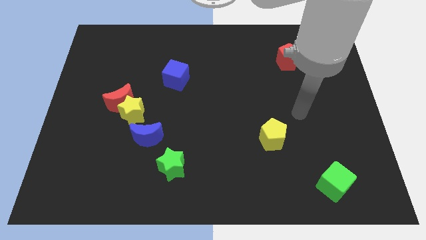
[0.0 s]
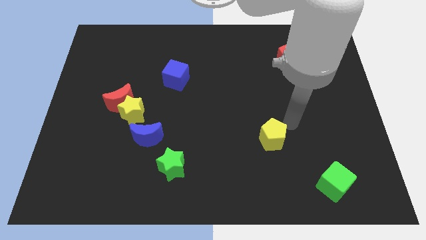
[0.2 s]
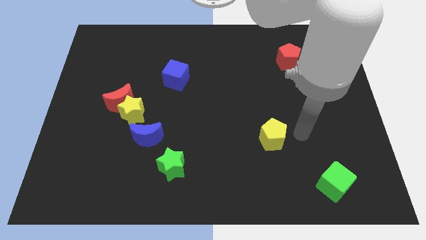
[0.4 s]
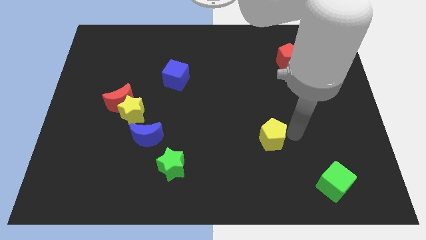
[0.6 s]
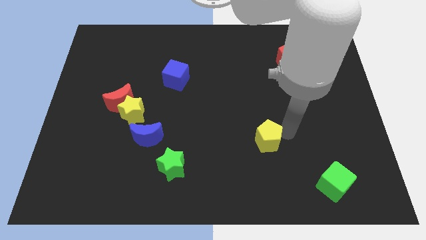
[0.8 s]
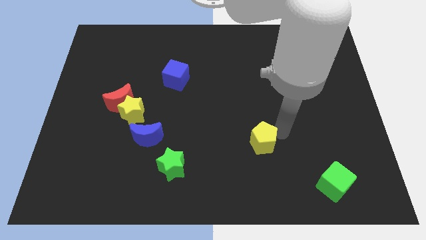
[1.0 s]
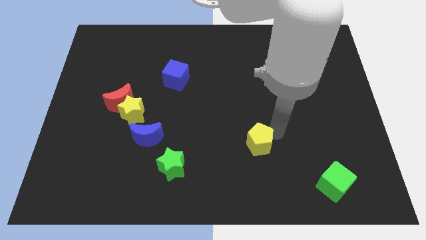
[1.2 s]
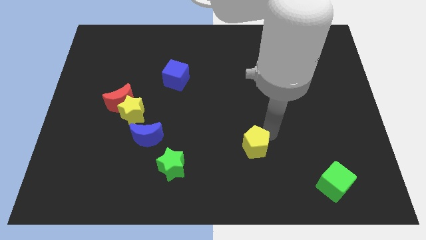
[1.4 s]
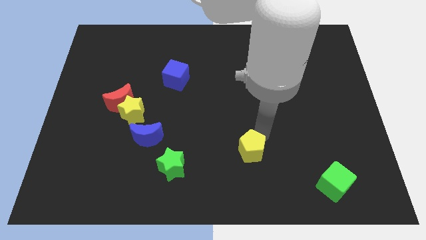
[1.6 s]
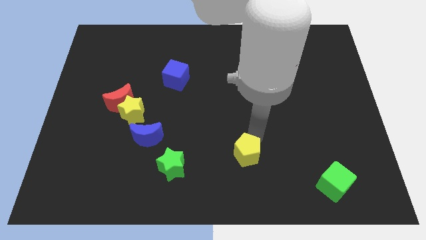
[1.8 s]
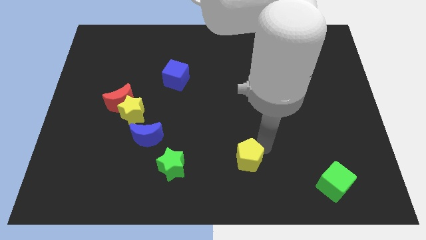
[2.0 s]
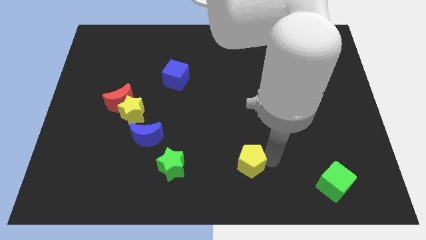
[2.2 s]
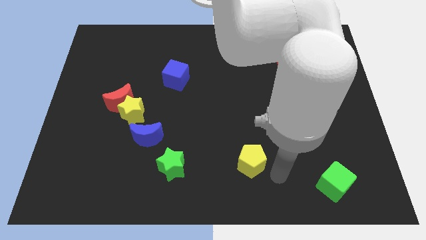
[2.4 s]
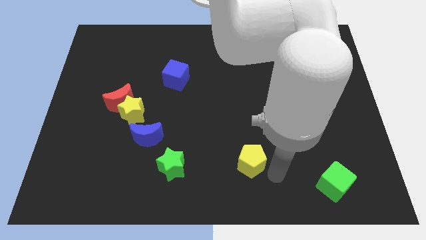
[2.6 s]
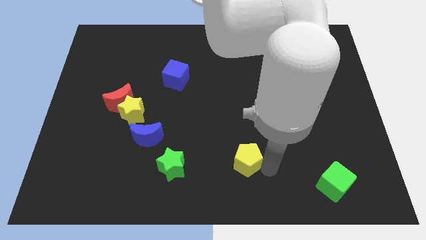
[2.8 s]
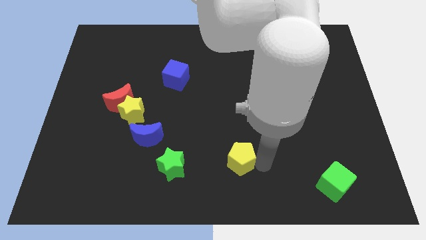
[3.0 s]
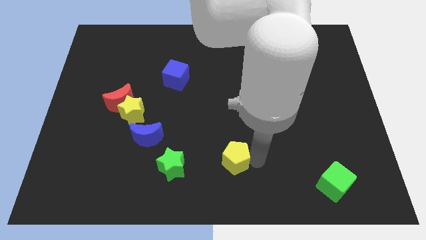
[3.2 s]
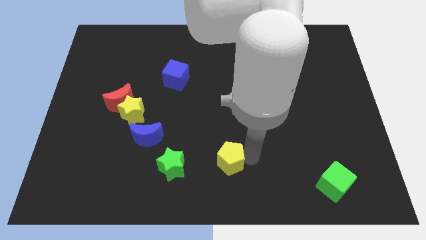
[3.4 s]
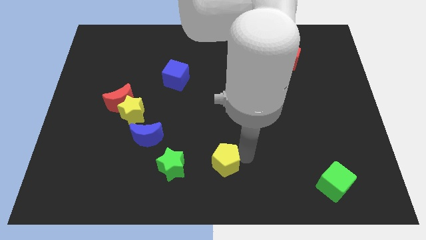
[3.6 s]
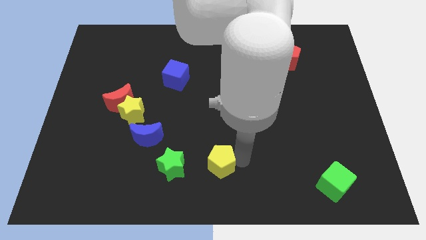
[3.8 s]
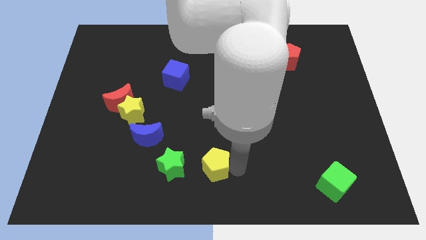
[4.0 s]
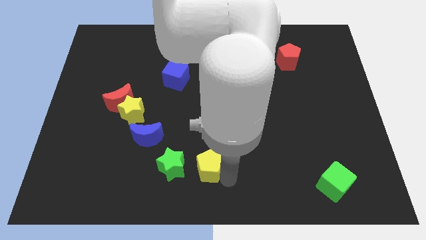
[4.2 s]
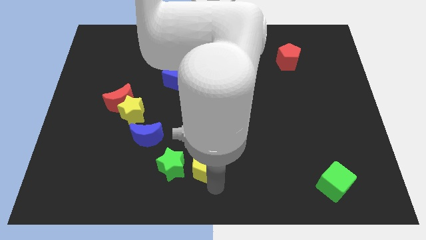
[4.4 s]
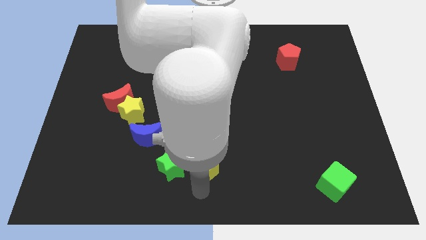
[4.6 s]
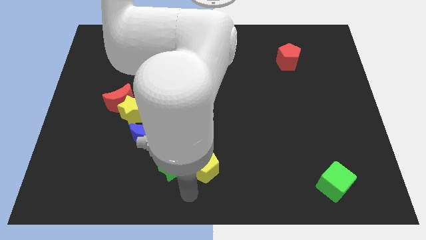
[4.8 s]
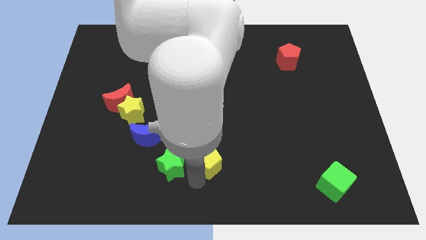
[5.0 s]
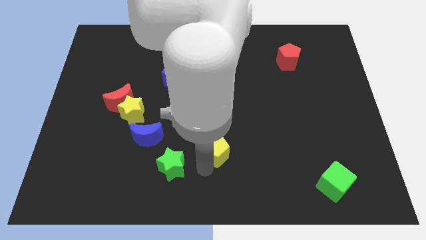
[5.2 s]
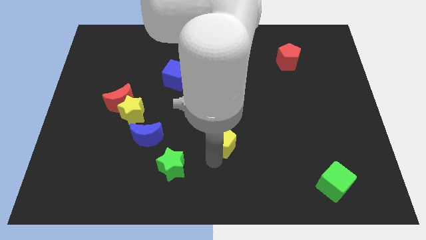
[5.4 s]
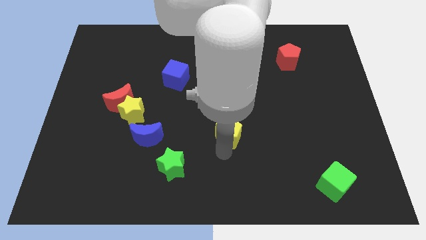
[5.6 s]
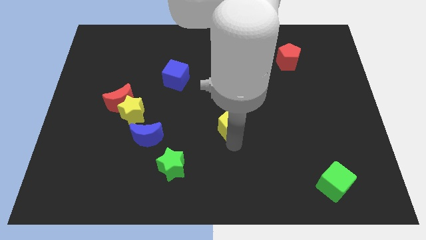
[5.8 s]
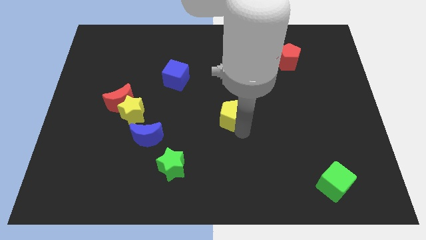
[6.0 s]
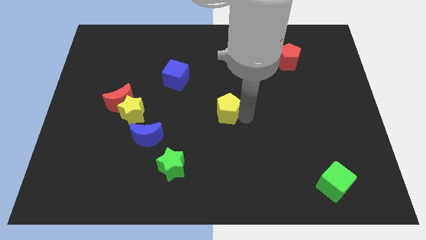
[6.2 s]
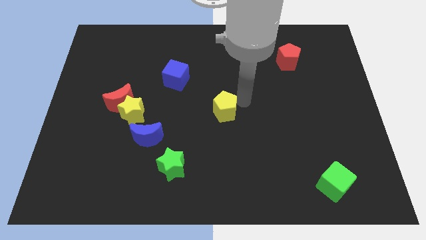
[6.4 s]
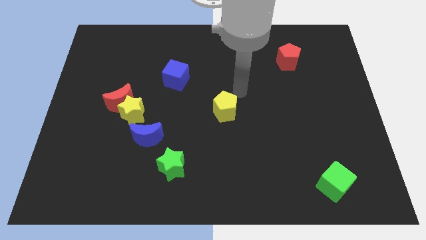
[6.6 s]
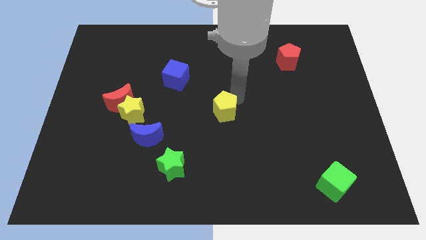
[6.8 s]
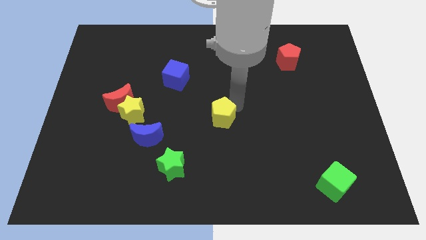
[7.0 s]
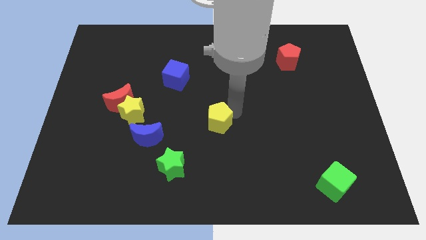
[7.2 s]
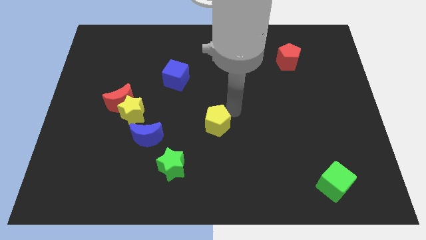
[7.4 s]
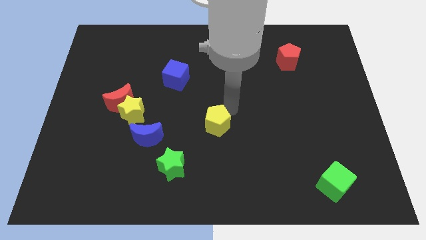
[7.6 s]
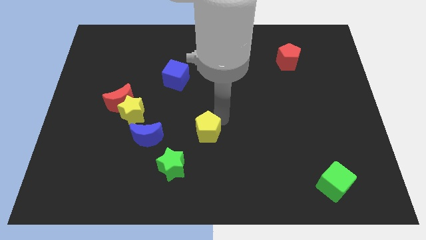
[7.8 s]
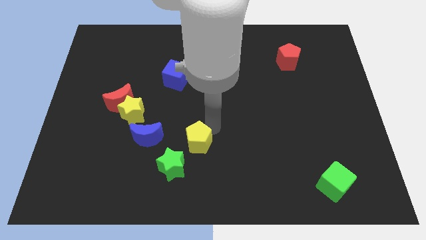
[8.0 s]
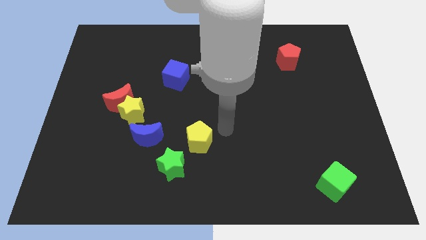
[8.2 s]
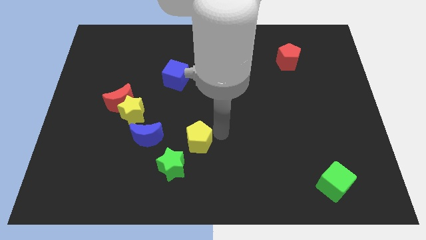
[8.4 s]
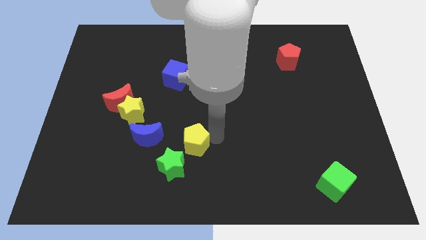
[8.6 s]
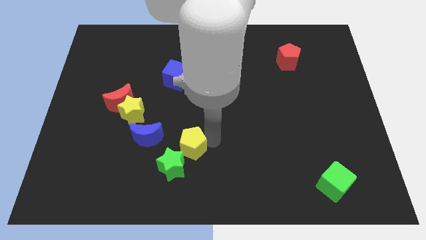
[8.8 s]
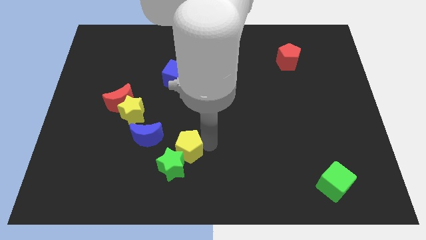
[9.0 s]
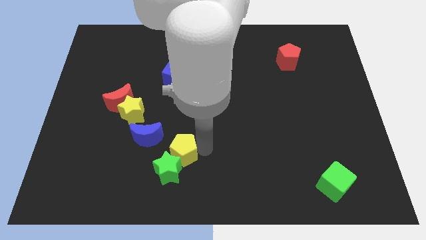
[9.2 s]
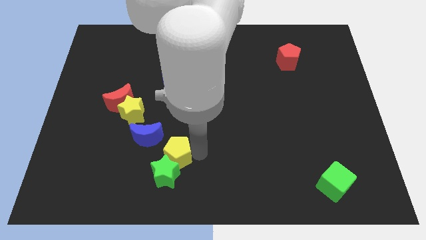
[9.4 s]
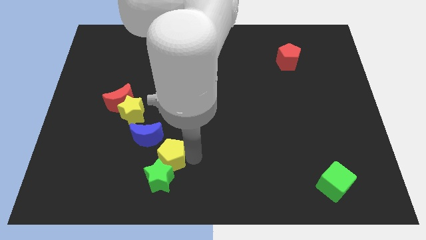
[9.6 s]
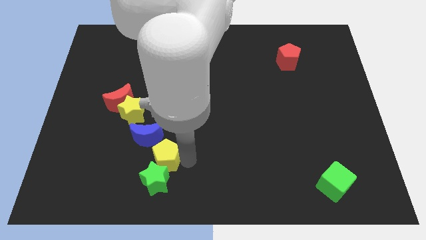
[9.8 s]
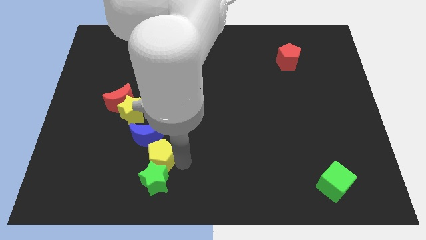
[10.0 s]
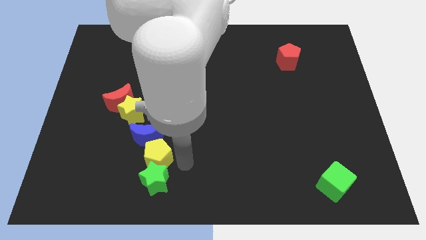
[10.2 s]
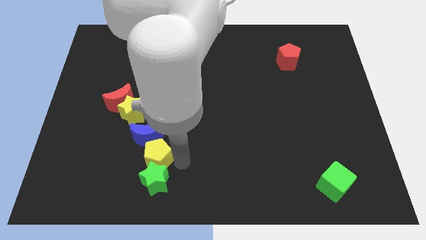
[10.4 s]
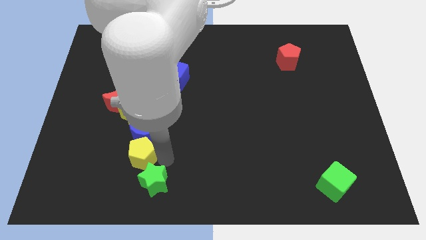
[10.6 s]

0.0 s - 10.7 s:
move the yellow pentagon below the yellow star

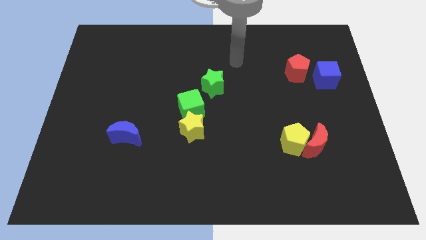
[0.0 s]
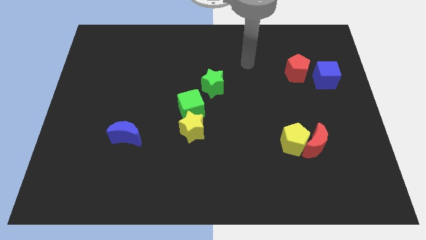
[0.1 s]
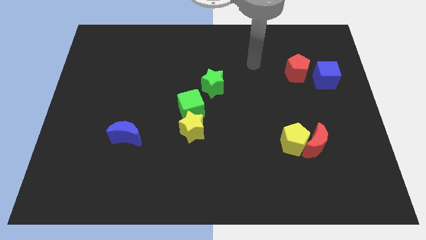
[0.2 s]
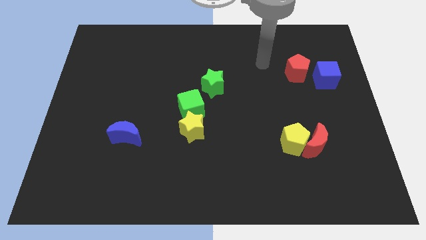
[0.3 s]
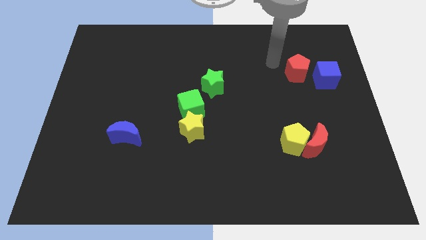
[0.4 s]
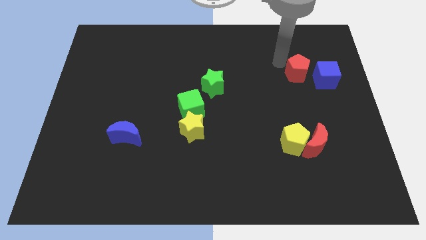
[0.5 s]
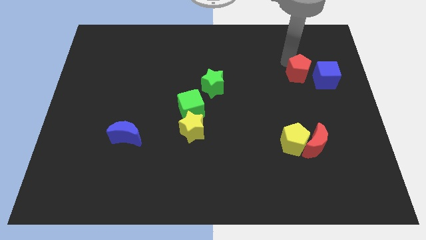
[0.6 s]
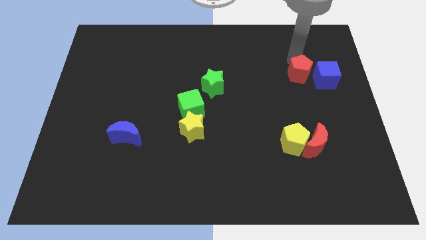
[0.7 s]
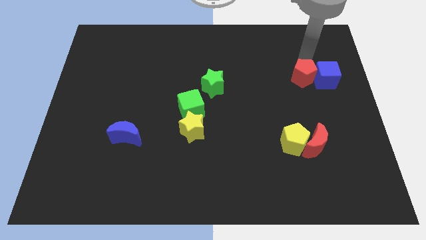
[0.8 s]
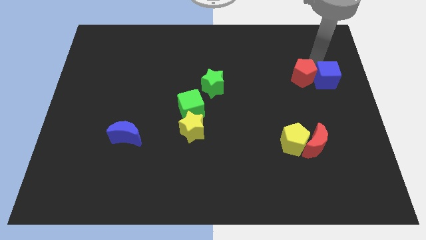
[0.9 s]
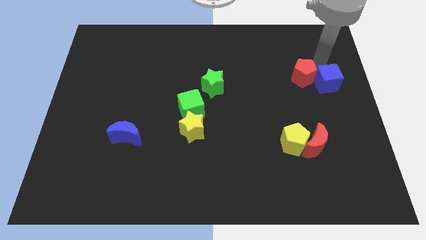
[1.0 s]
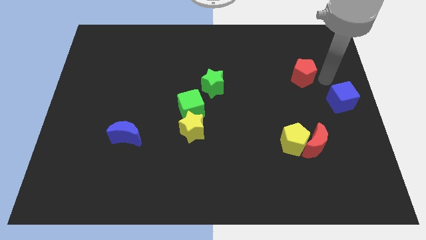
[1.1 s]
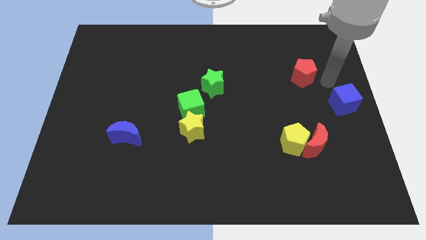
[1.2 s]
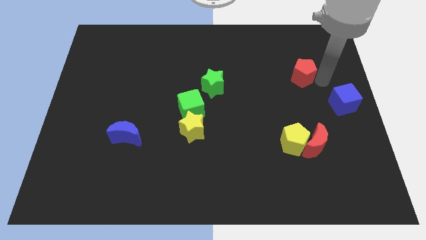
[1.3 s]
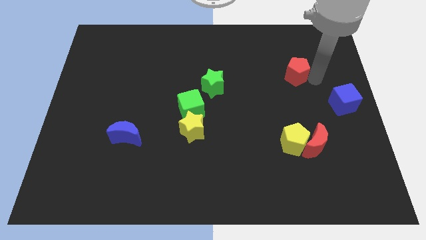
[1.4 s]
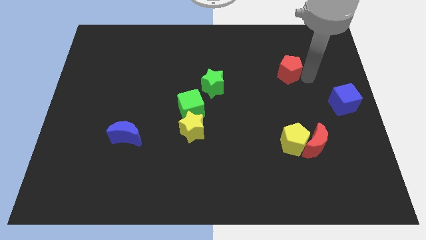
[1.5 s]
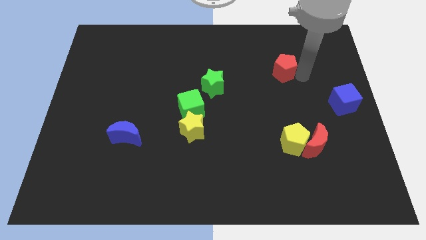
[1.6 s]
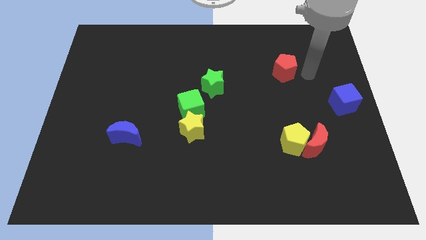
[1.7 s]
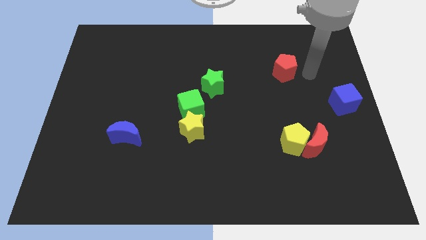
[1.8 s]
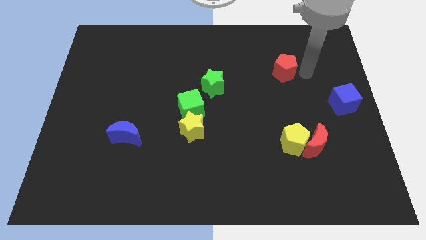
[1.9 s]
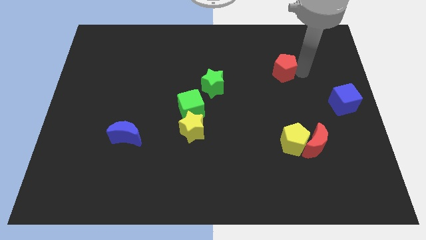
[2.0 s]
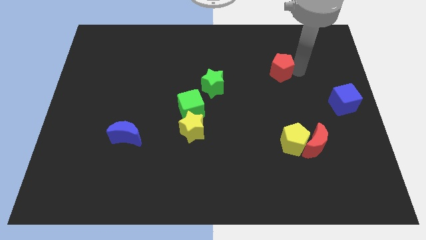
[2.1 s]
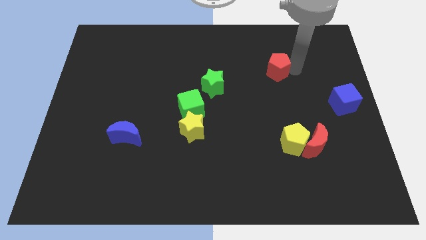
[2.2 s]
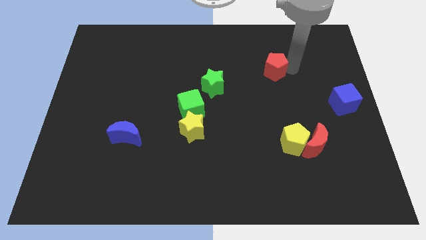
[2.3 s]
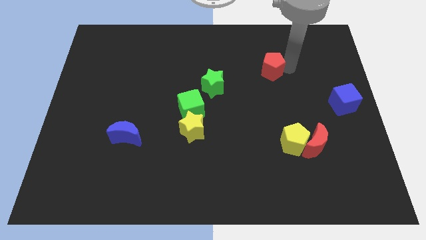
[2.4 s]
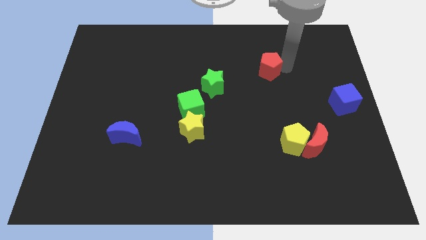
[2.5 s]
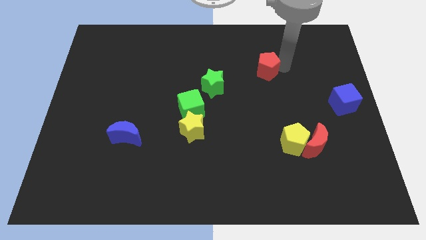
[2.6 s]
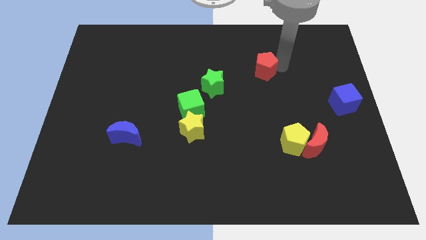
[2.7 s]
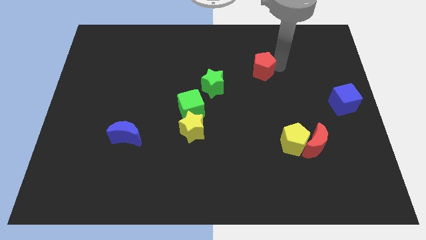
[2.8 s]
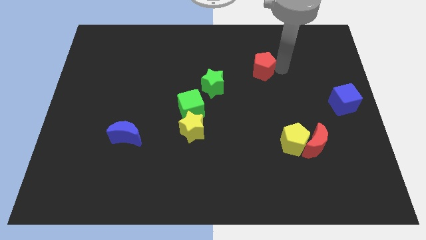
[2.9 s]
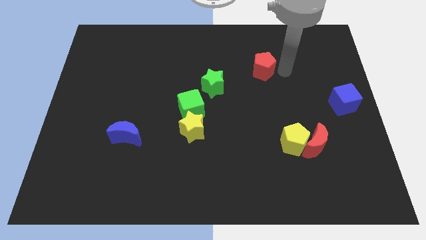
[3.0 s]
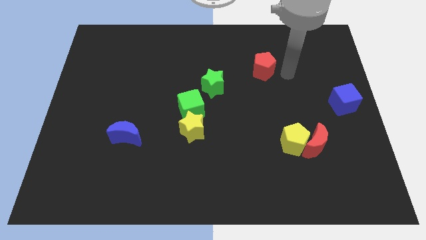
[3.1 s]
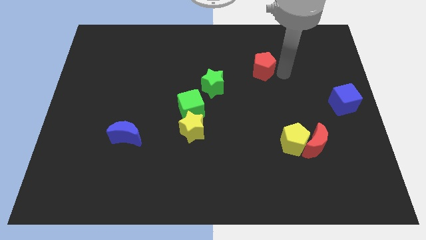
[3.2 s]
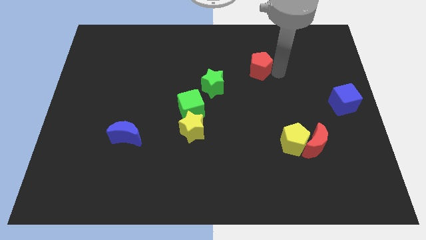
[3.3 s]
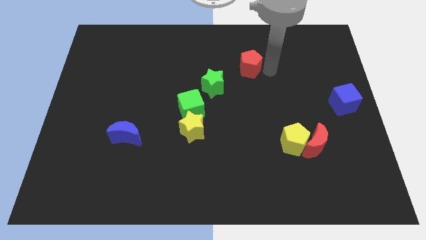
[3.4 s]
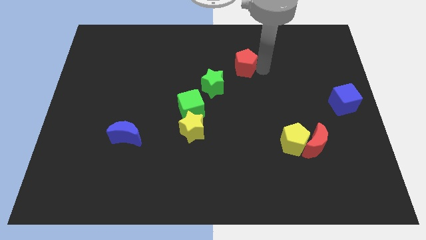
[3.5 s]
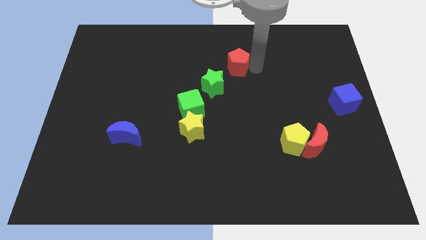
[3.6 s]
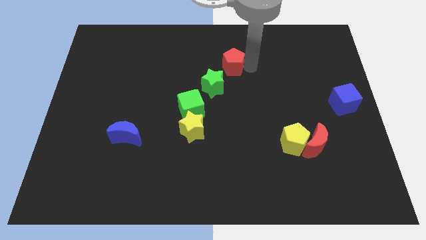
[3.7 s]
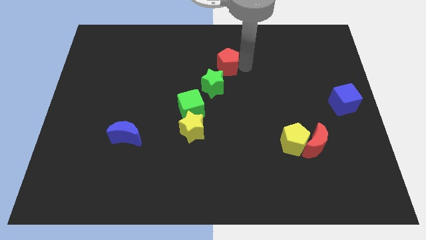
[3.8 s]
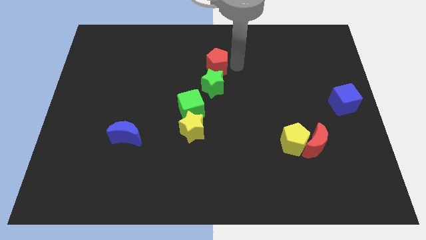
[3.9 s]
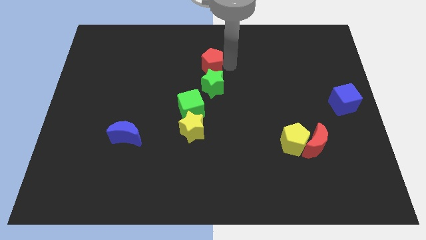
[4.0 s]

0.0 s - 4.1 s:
push the red pentagon to the top left side of the green star
